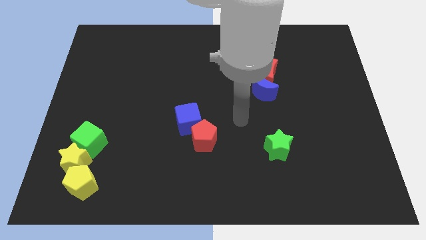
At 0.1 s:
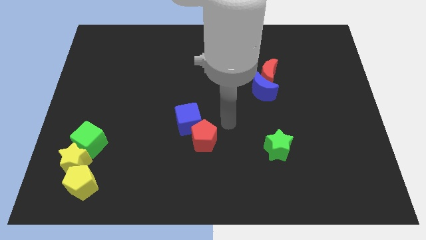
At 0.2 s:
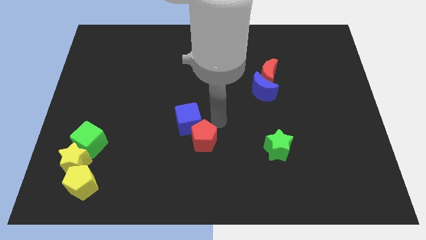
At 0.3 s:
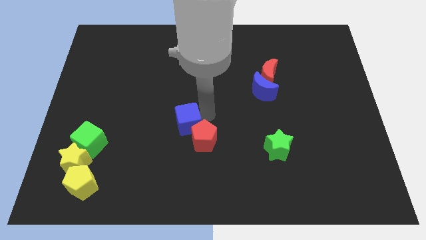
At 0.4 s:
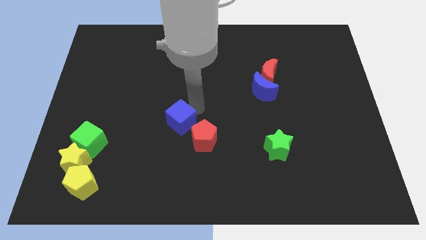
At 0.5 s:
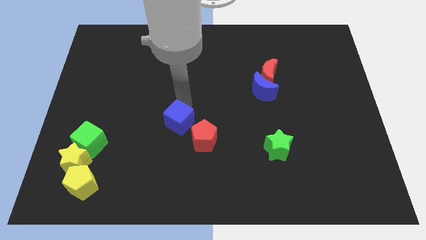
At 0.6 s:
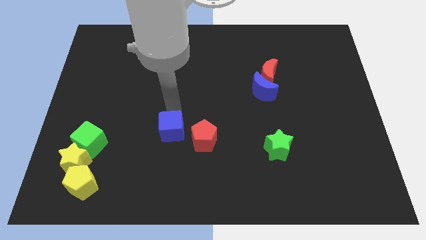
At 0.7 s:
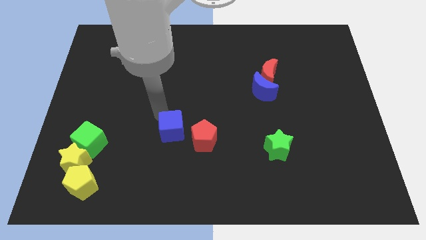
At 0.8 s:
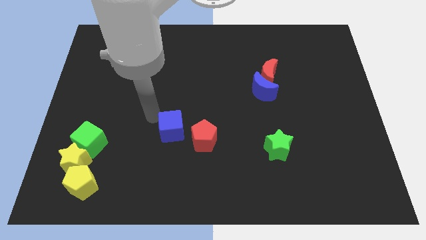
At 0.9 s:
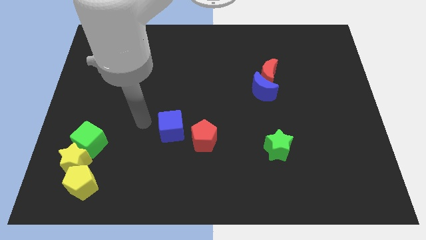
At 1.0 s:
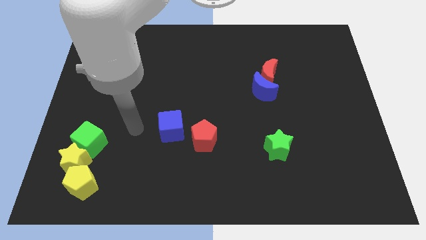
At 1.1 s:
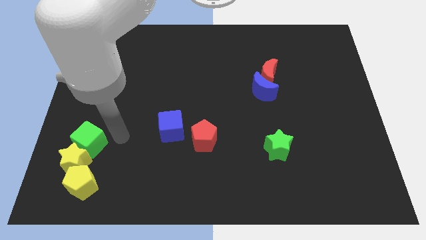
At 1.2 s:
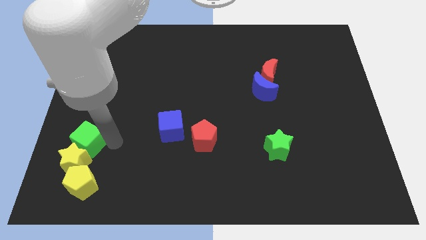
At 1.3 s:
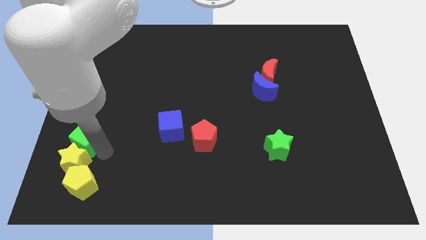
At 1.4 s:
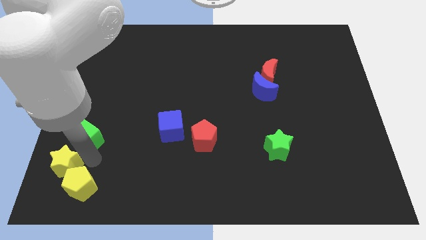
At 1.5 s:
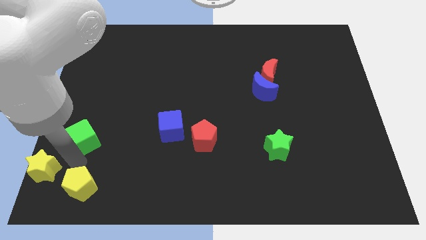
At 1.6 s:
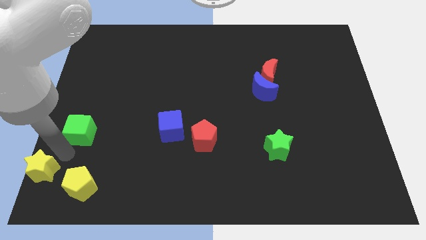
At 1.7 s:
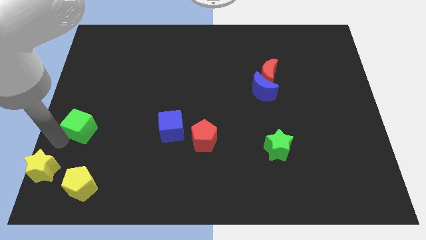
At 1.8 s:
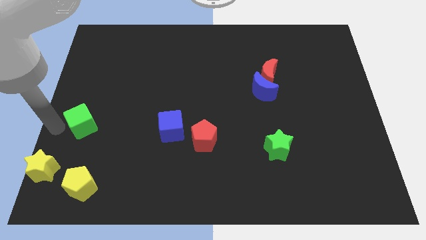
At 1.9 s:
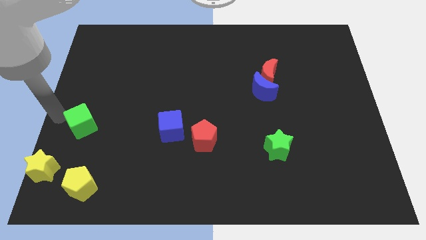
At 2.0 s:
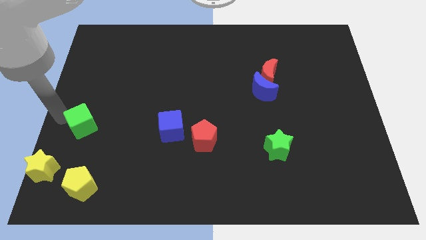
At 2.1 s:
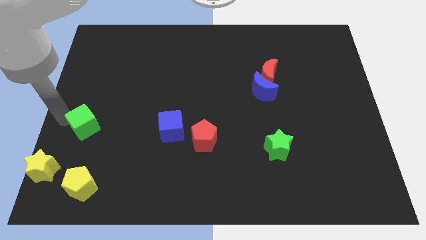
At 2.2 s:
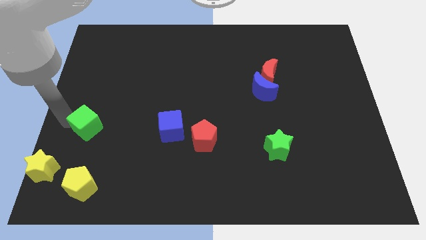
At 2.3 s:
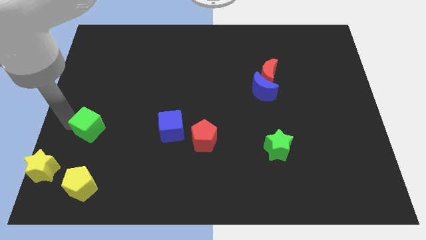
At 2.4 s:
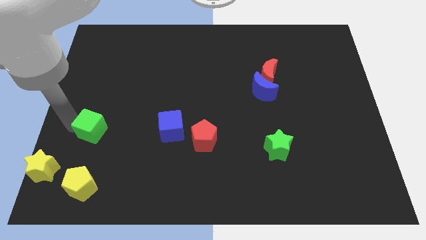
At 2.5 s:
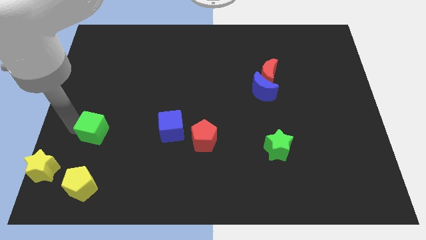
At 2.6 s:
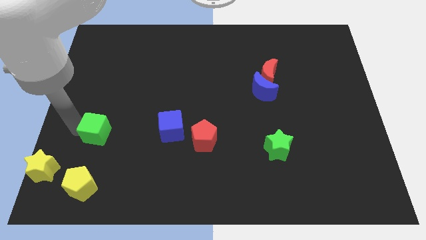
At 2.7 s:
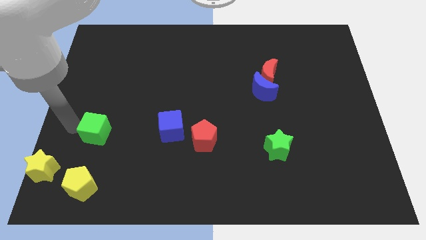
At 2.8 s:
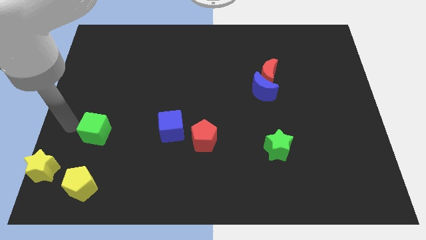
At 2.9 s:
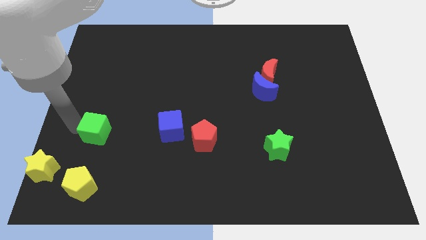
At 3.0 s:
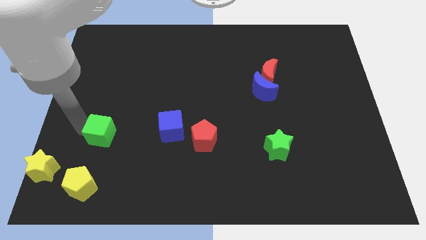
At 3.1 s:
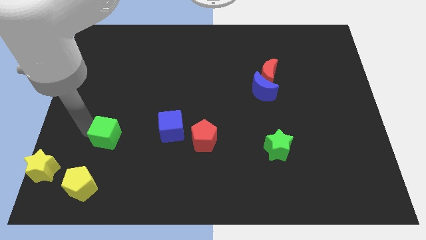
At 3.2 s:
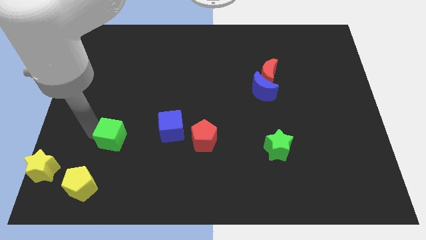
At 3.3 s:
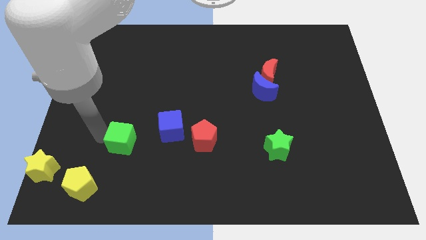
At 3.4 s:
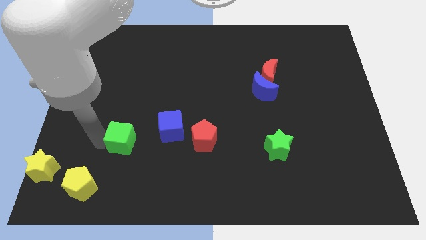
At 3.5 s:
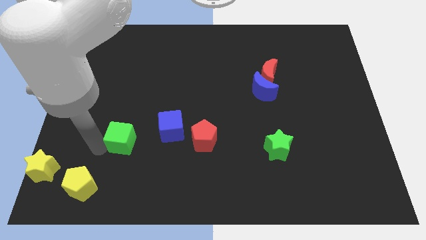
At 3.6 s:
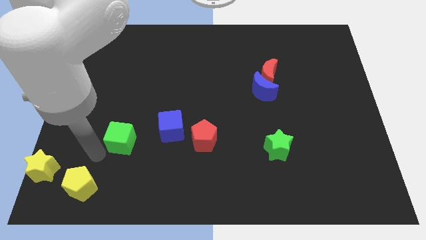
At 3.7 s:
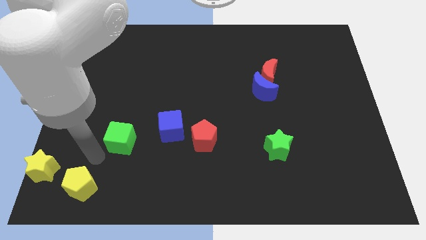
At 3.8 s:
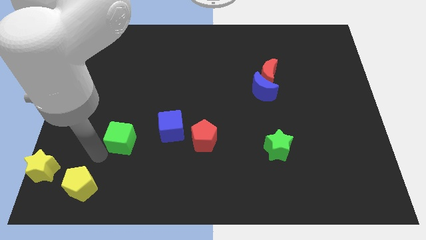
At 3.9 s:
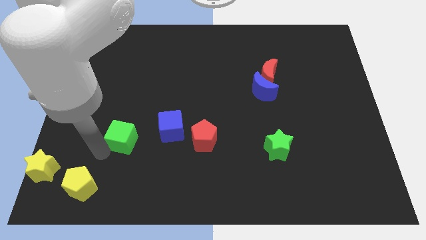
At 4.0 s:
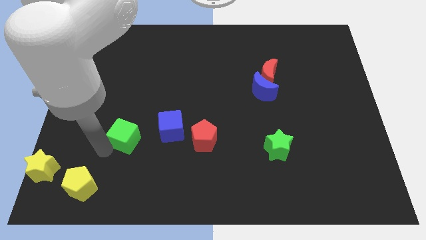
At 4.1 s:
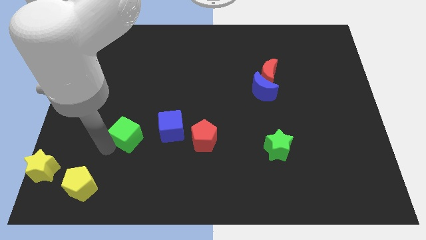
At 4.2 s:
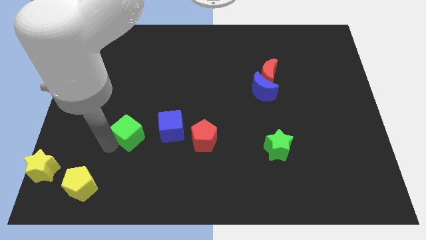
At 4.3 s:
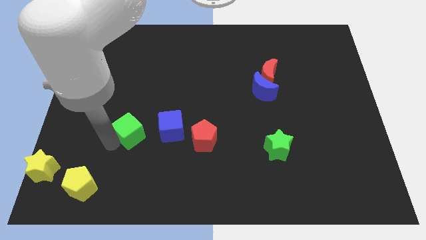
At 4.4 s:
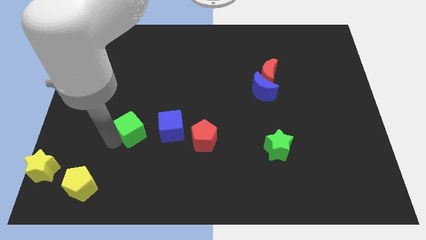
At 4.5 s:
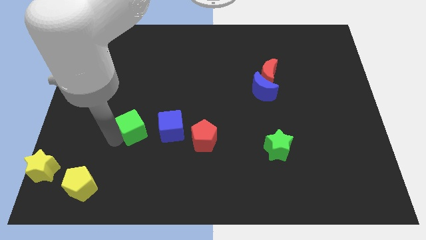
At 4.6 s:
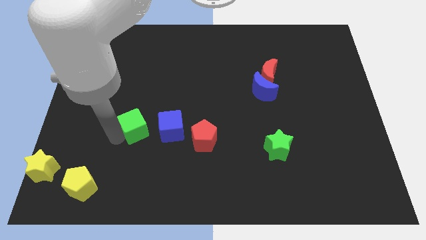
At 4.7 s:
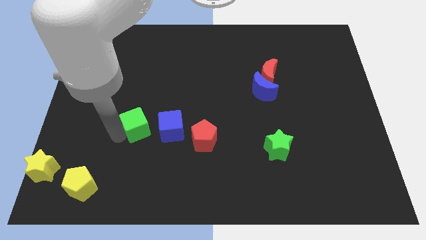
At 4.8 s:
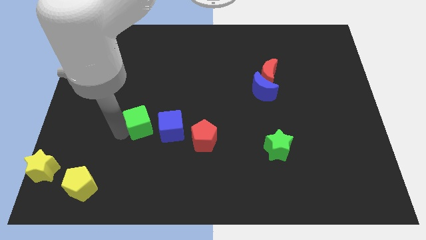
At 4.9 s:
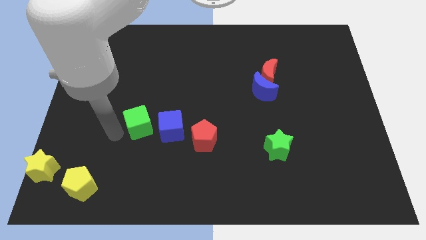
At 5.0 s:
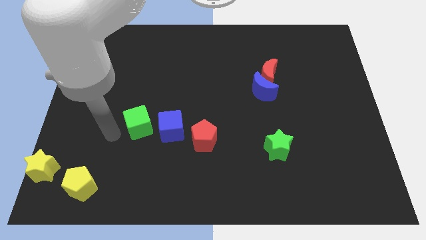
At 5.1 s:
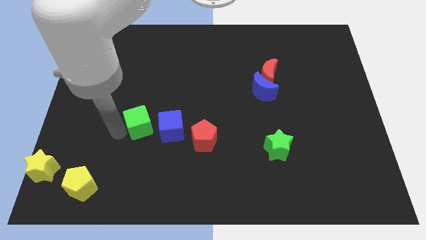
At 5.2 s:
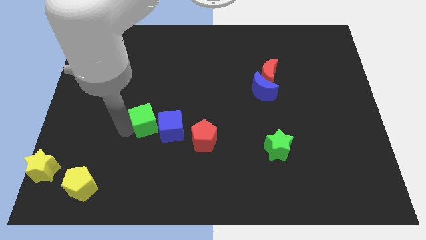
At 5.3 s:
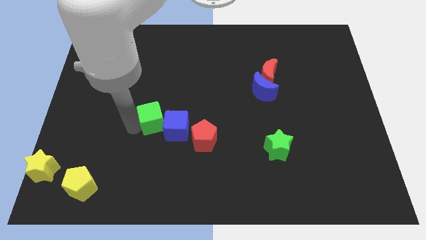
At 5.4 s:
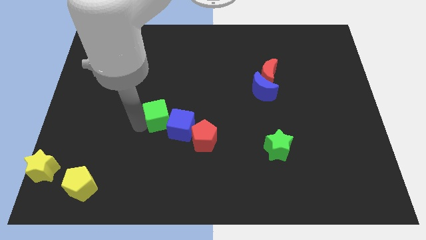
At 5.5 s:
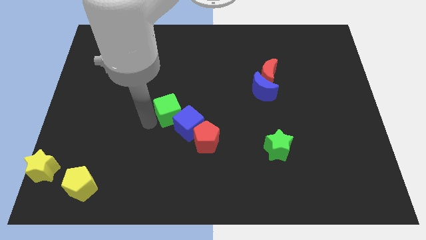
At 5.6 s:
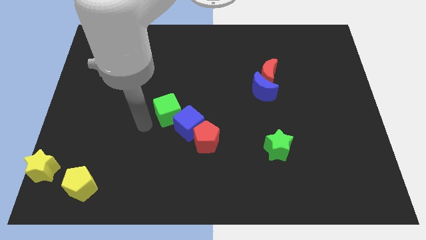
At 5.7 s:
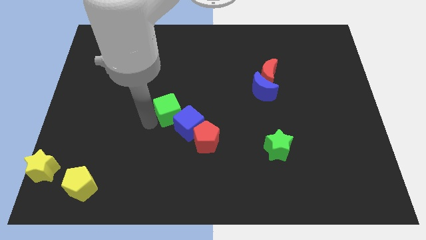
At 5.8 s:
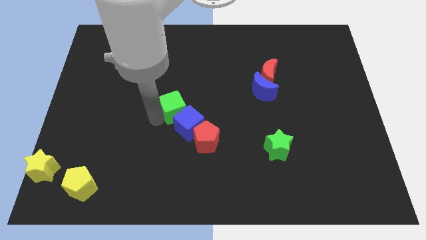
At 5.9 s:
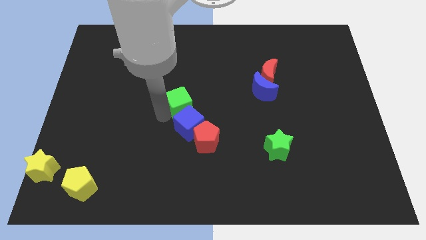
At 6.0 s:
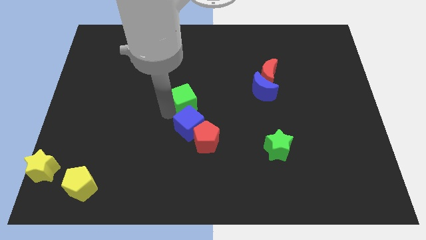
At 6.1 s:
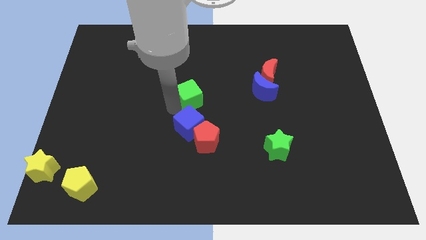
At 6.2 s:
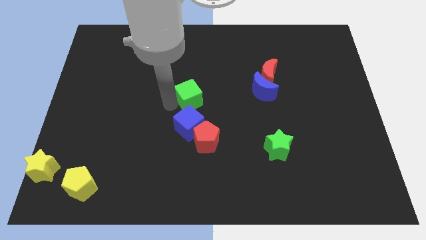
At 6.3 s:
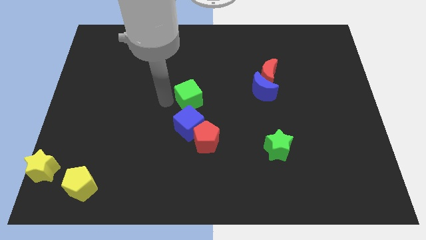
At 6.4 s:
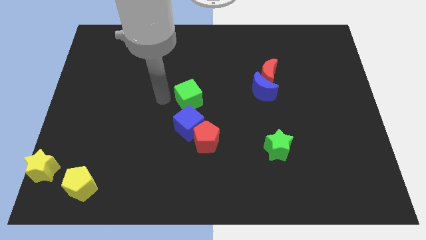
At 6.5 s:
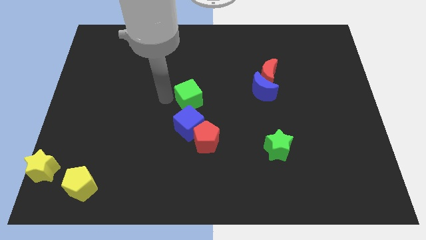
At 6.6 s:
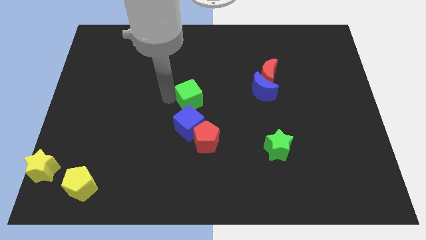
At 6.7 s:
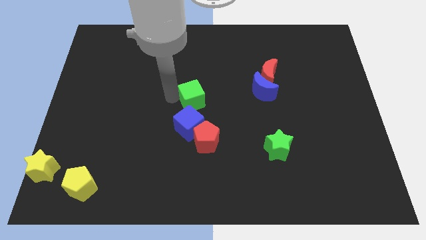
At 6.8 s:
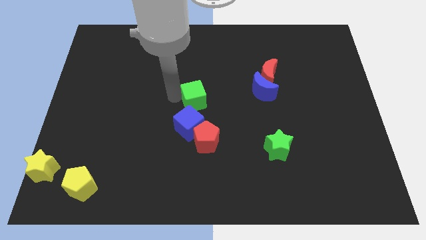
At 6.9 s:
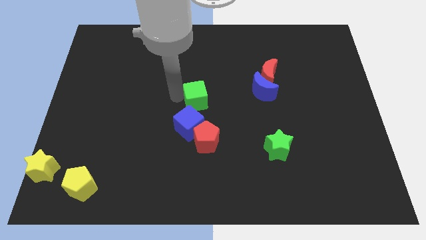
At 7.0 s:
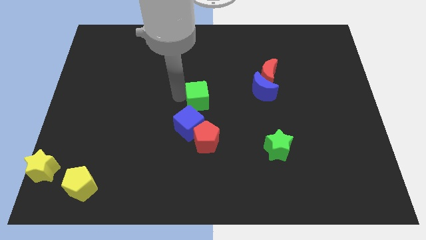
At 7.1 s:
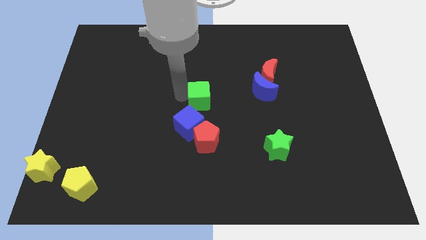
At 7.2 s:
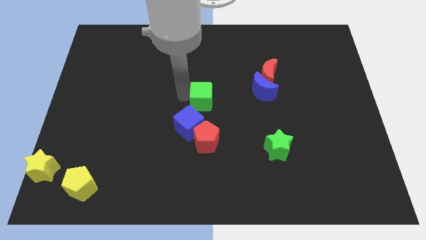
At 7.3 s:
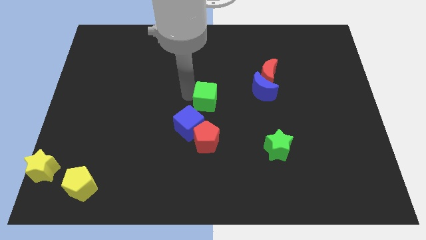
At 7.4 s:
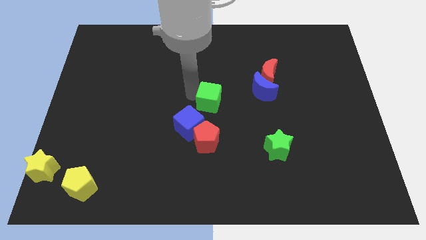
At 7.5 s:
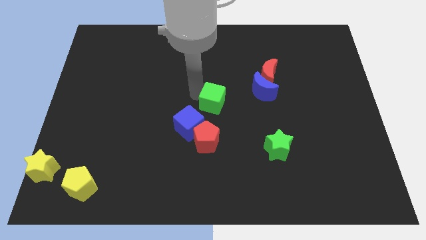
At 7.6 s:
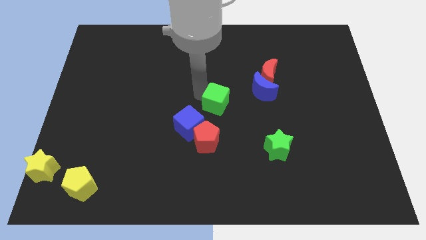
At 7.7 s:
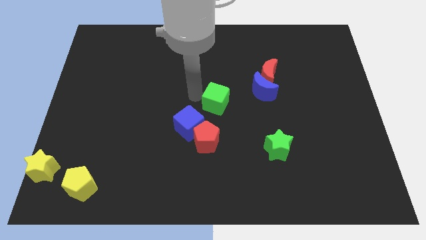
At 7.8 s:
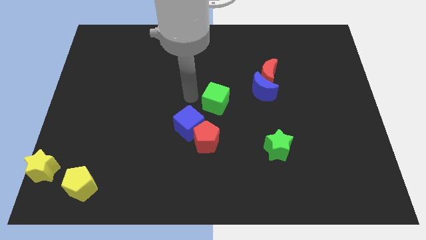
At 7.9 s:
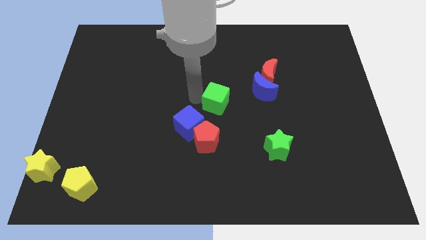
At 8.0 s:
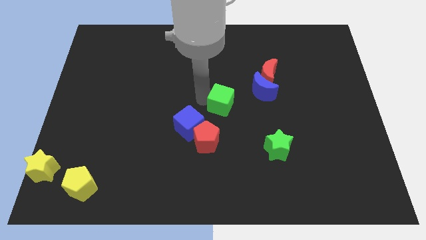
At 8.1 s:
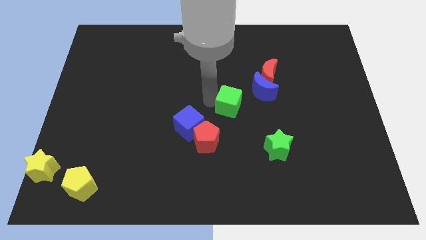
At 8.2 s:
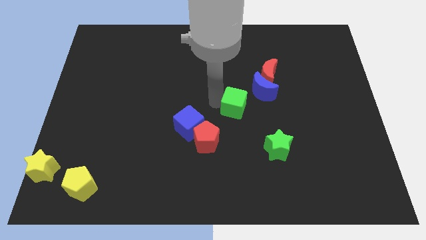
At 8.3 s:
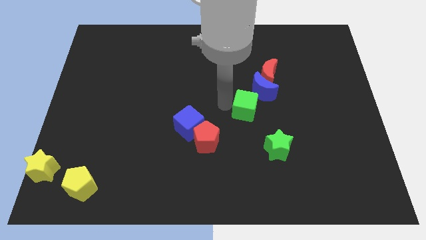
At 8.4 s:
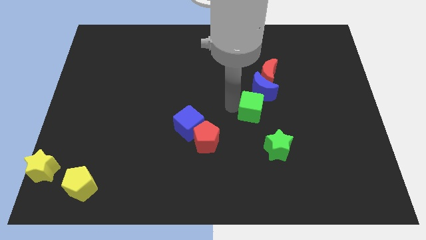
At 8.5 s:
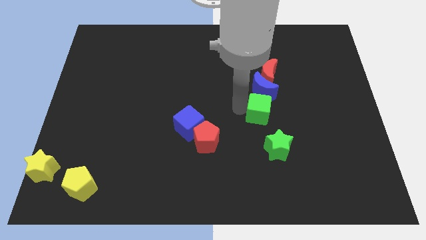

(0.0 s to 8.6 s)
slide the green cube above the green star
